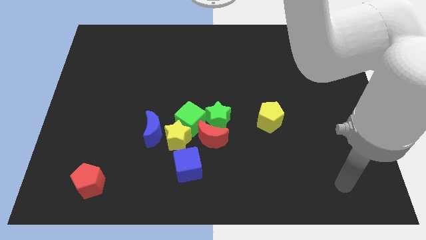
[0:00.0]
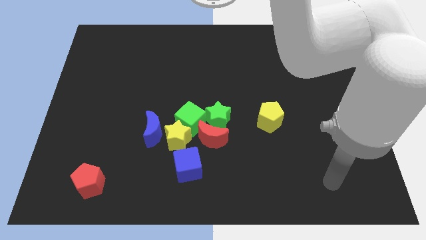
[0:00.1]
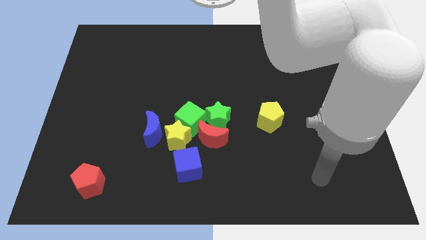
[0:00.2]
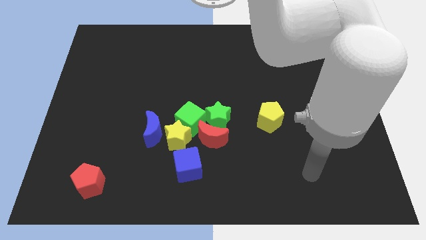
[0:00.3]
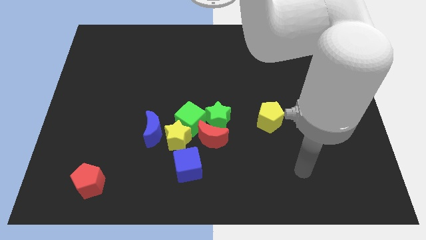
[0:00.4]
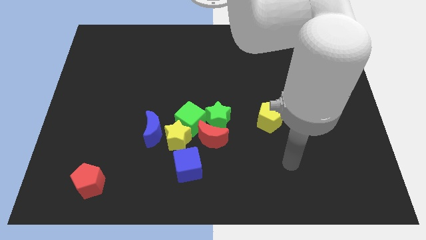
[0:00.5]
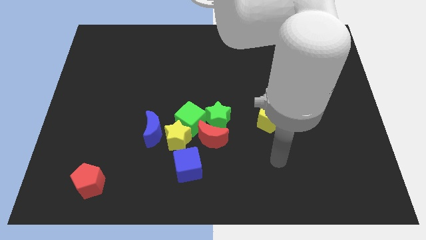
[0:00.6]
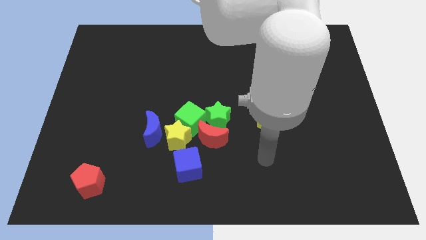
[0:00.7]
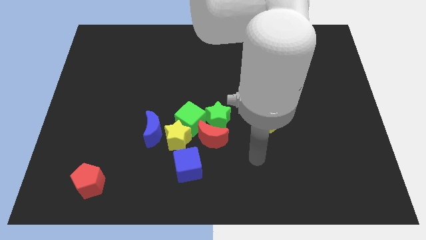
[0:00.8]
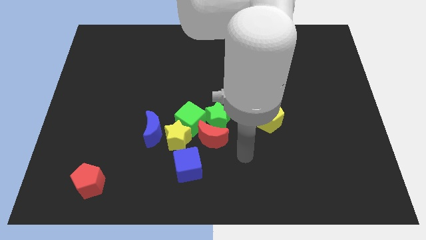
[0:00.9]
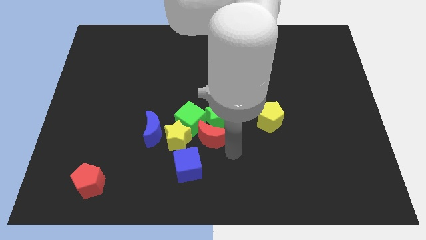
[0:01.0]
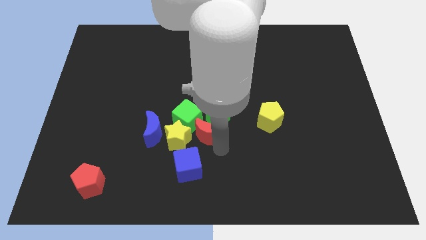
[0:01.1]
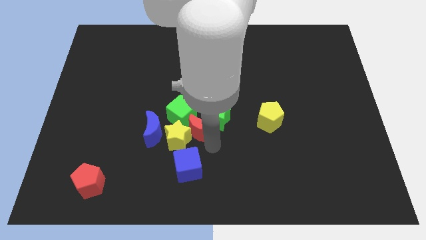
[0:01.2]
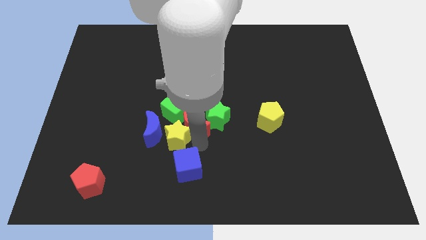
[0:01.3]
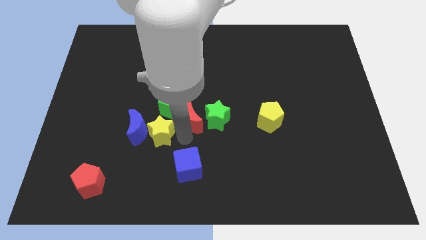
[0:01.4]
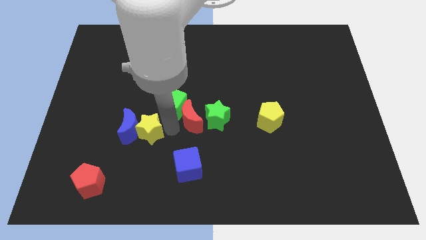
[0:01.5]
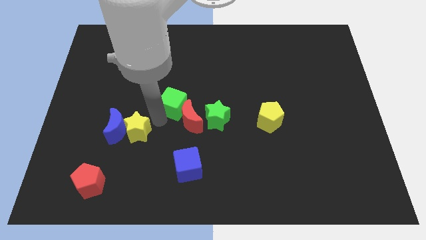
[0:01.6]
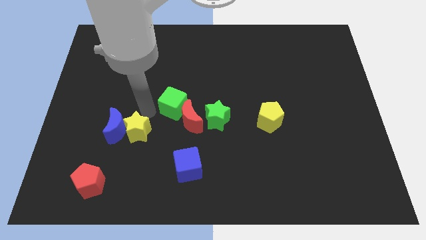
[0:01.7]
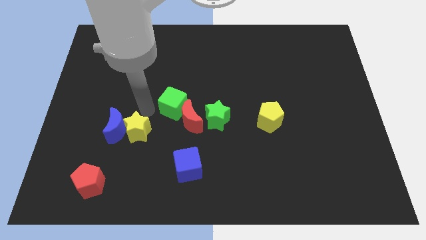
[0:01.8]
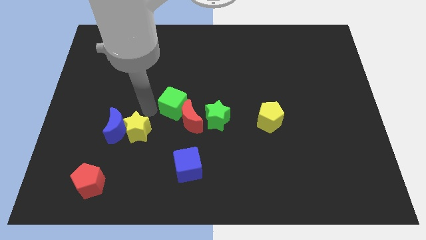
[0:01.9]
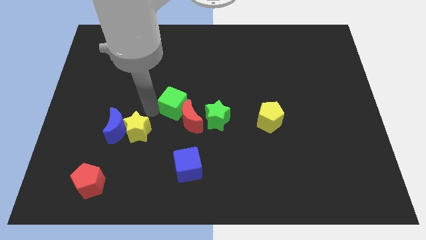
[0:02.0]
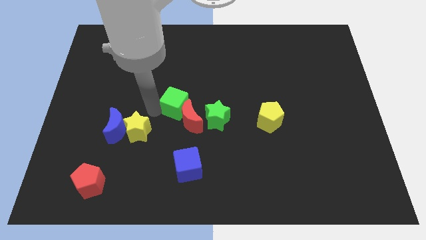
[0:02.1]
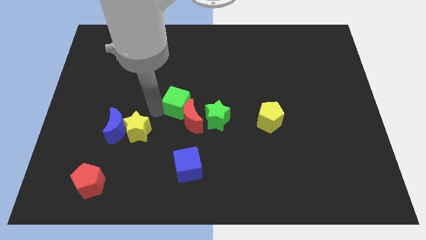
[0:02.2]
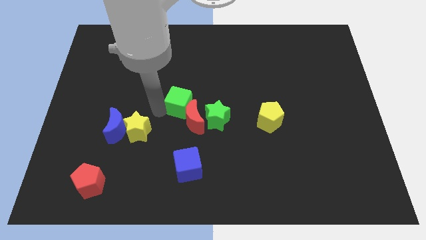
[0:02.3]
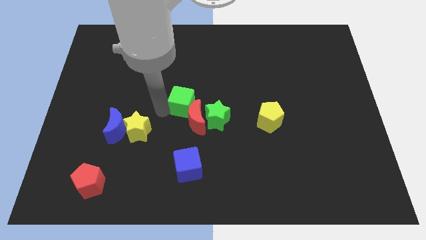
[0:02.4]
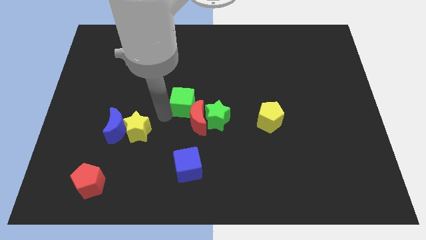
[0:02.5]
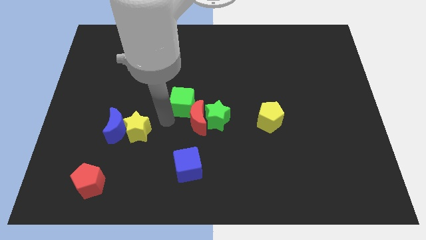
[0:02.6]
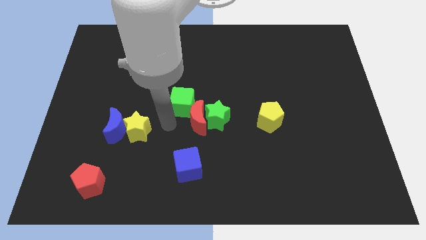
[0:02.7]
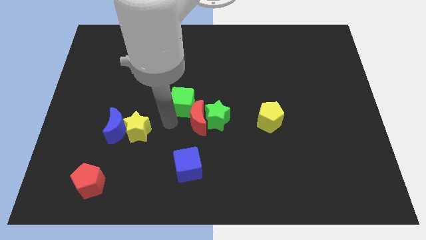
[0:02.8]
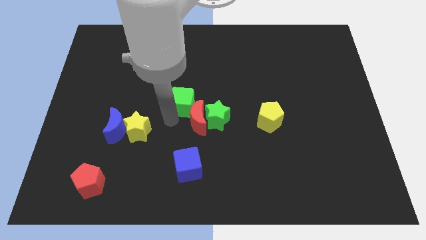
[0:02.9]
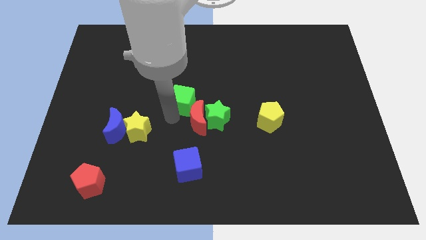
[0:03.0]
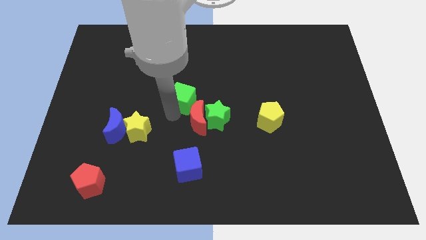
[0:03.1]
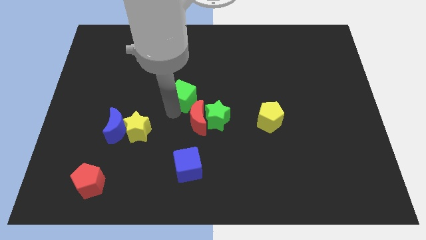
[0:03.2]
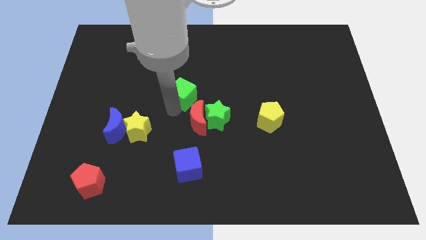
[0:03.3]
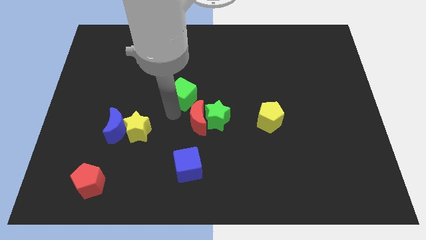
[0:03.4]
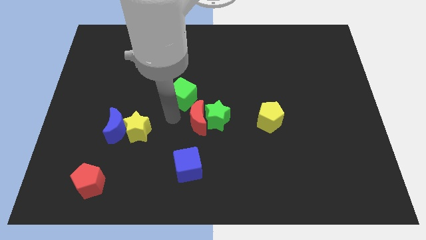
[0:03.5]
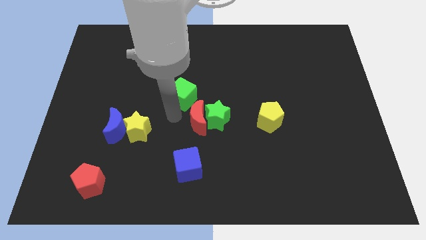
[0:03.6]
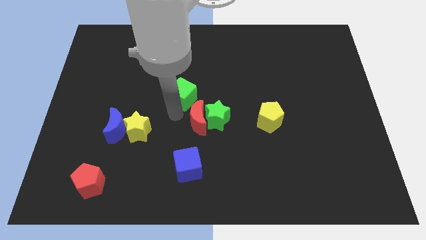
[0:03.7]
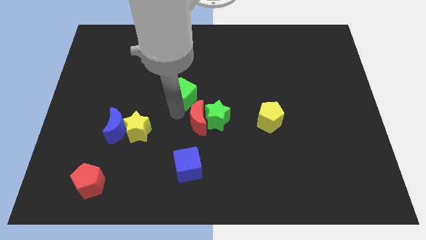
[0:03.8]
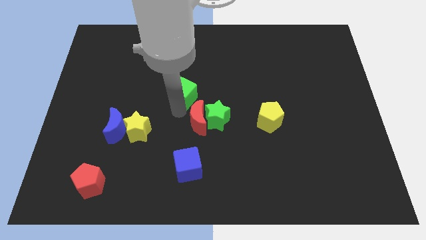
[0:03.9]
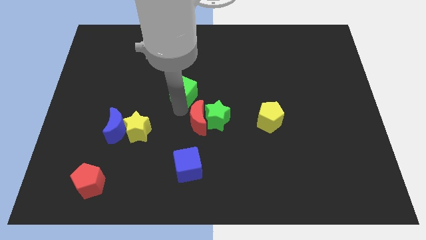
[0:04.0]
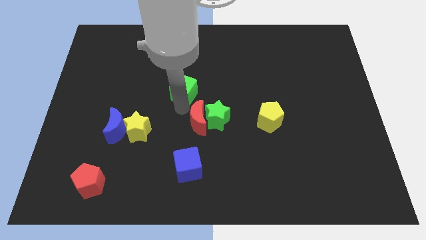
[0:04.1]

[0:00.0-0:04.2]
move the green cube away from the group

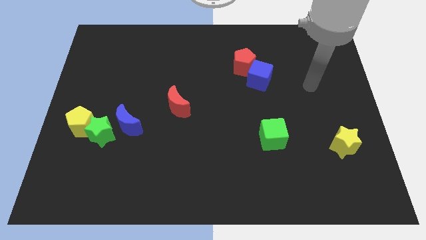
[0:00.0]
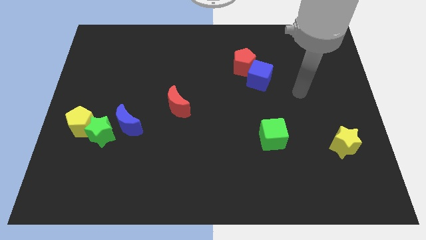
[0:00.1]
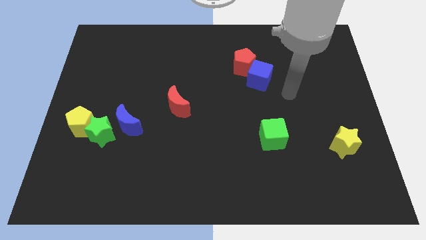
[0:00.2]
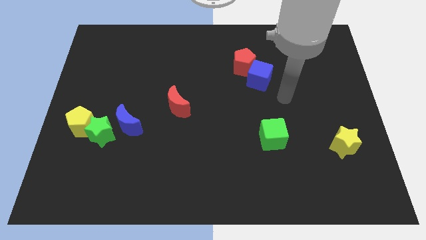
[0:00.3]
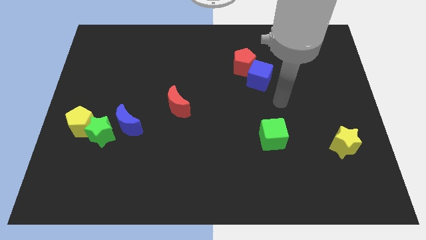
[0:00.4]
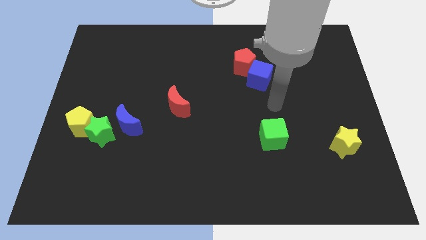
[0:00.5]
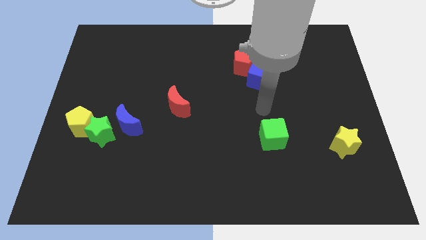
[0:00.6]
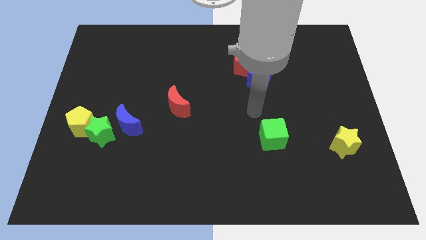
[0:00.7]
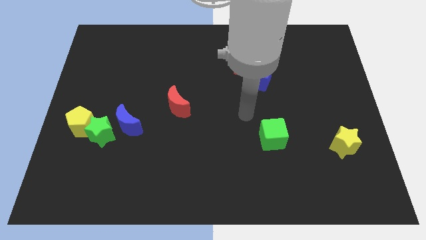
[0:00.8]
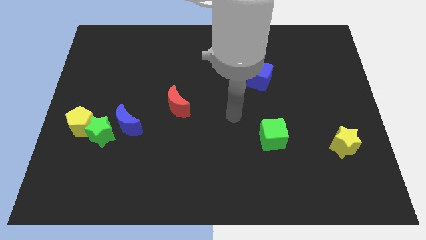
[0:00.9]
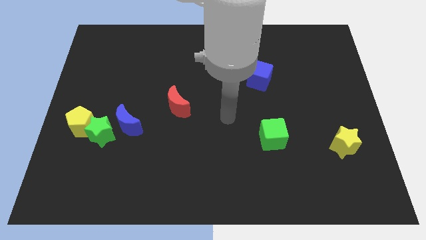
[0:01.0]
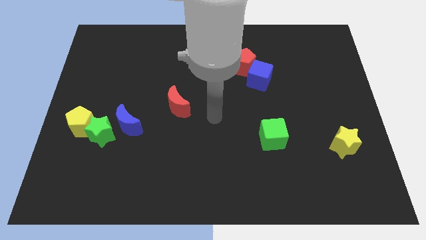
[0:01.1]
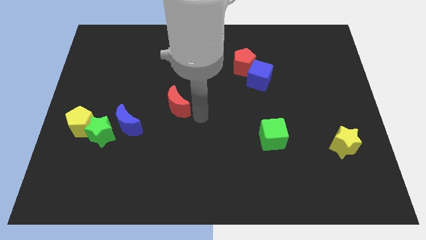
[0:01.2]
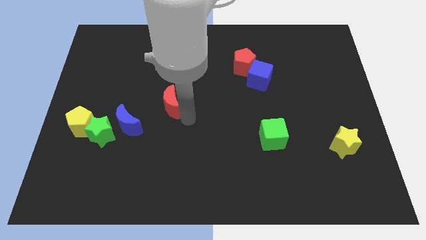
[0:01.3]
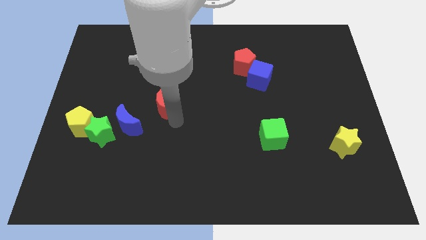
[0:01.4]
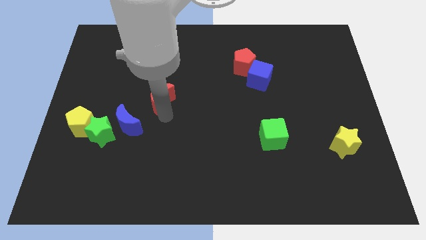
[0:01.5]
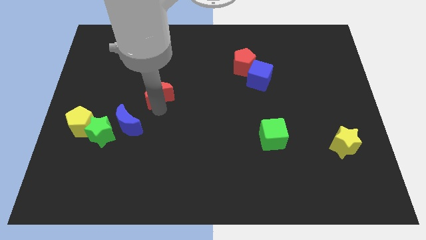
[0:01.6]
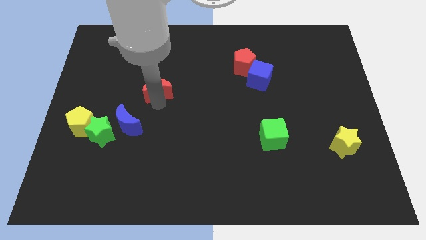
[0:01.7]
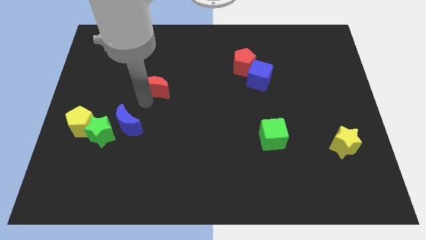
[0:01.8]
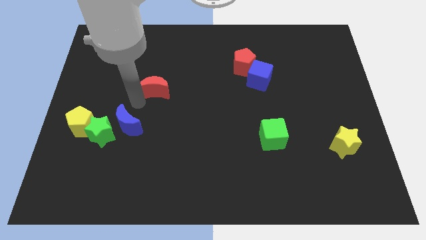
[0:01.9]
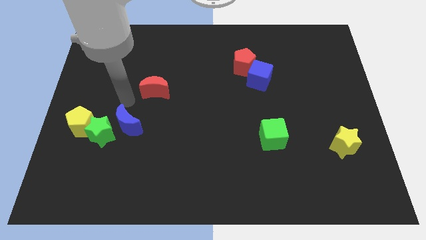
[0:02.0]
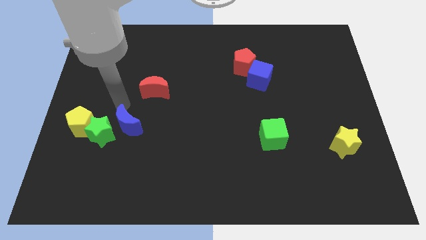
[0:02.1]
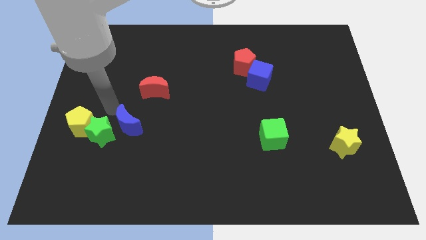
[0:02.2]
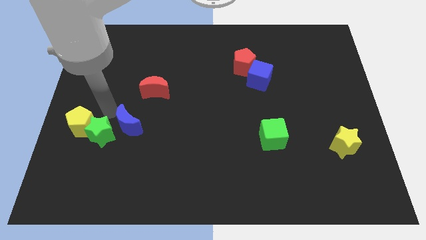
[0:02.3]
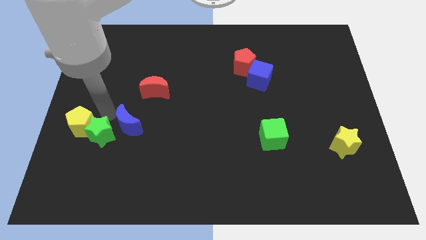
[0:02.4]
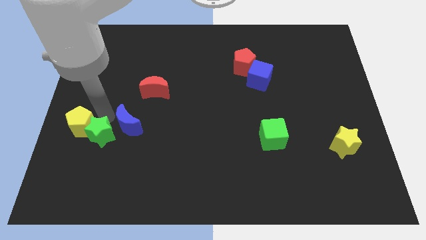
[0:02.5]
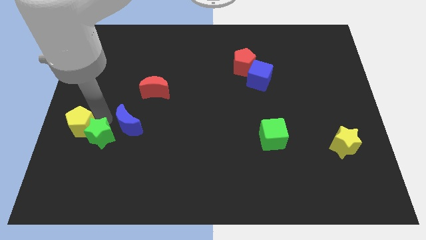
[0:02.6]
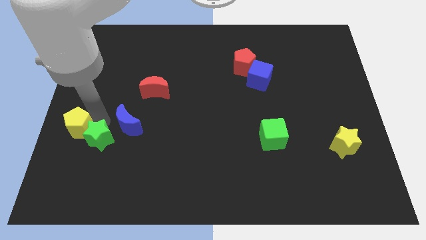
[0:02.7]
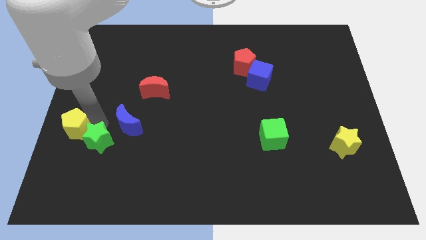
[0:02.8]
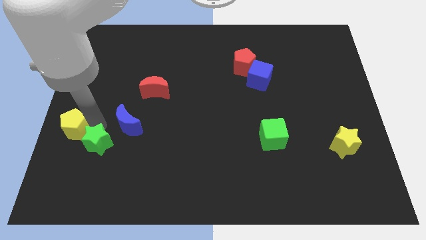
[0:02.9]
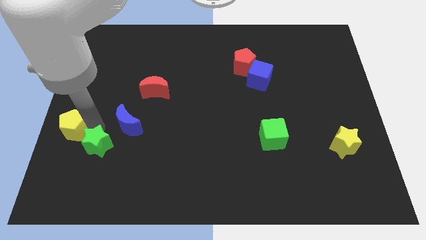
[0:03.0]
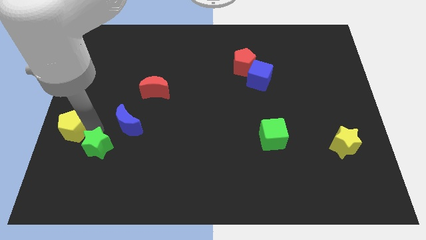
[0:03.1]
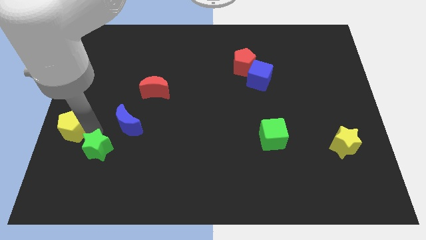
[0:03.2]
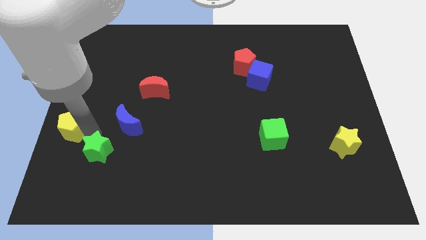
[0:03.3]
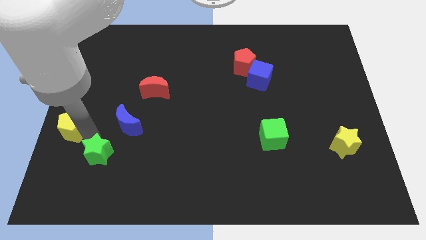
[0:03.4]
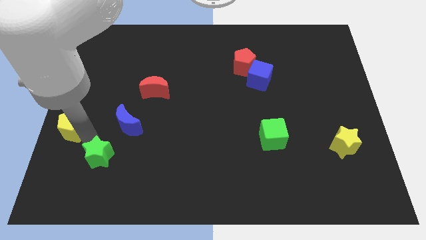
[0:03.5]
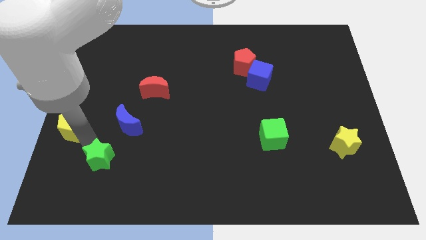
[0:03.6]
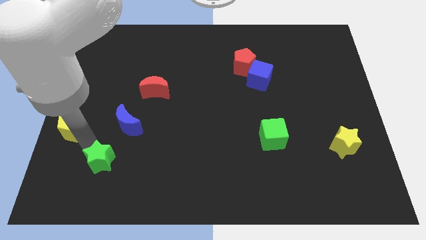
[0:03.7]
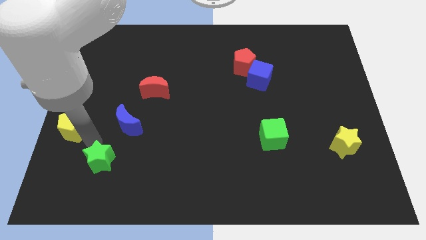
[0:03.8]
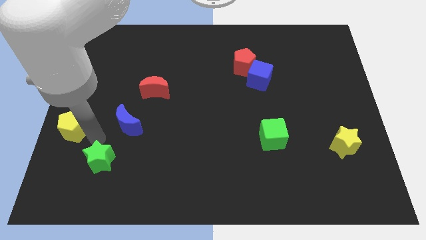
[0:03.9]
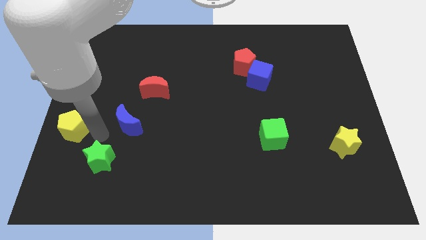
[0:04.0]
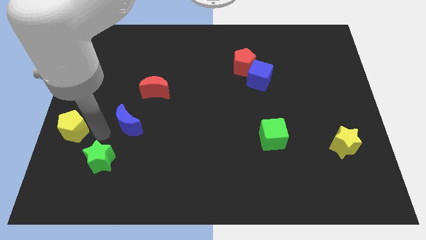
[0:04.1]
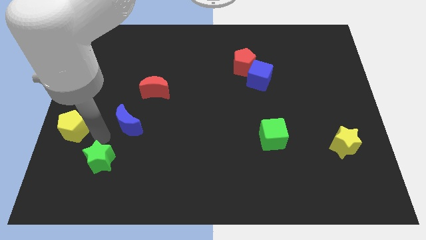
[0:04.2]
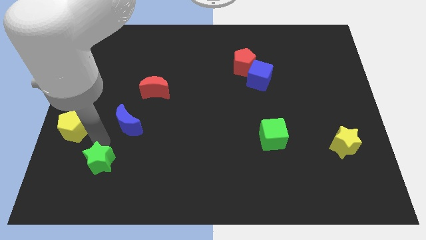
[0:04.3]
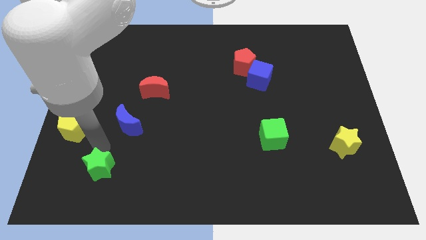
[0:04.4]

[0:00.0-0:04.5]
pull the green star apart from the yellow pentagon and blue moon

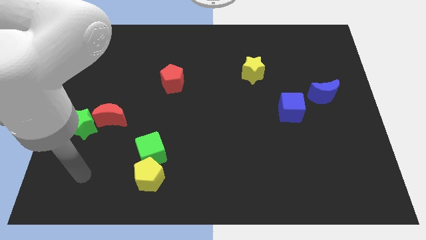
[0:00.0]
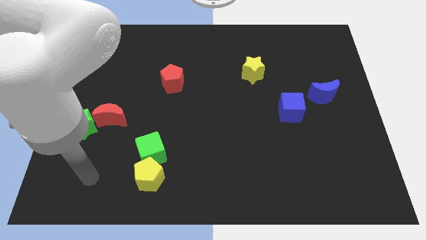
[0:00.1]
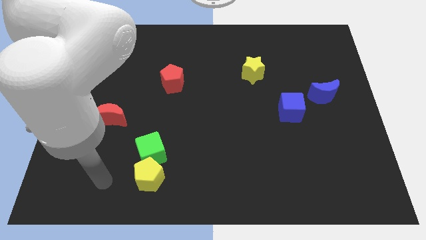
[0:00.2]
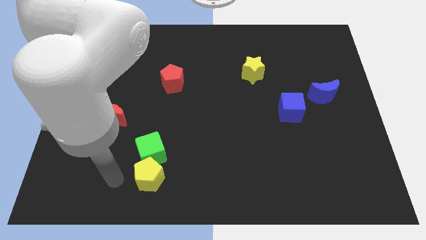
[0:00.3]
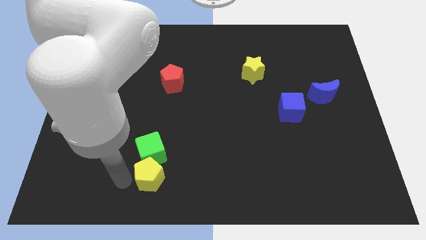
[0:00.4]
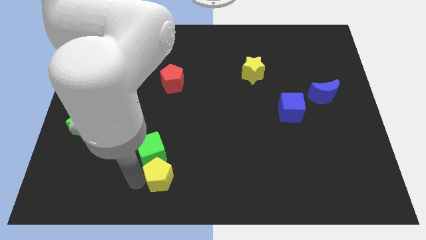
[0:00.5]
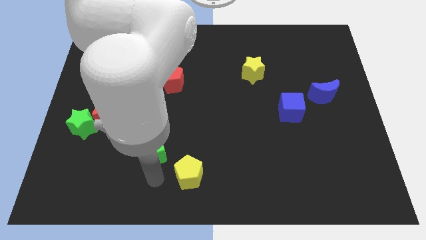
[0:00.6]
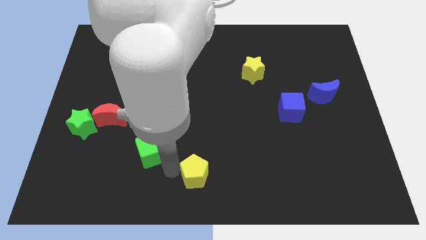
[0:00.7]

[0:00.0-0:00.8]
separate the green cube from the yellow pentagon
